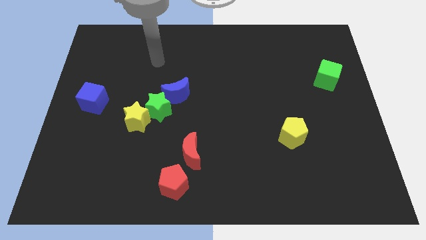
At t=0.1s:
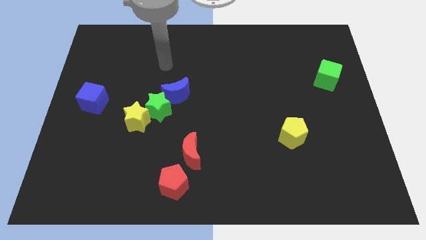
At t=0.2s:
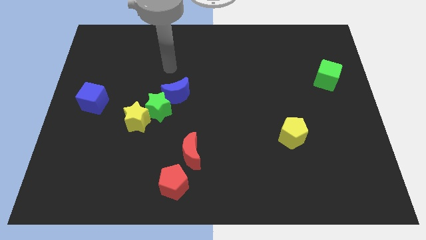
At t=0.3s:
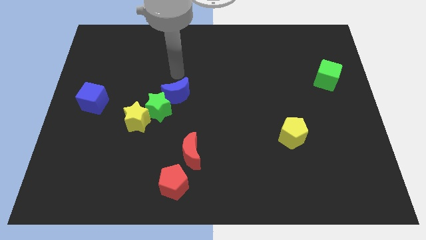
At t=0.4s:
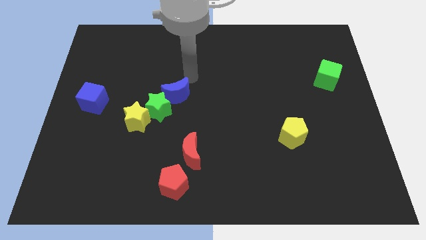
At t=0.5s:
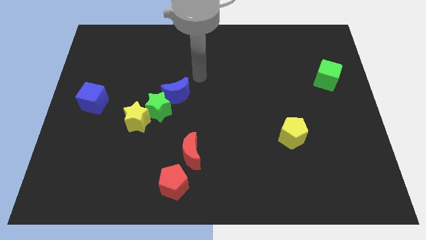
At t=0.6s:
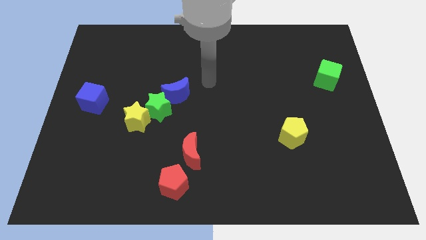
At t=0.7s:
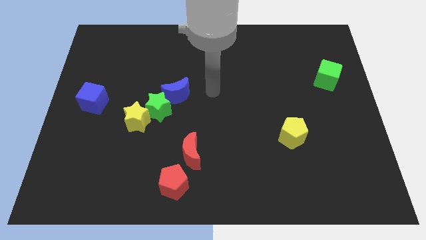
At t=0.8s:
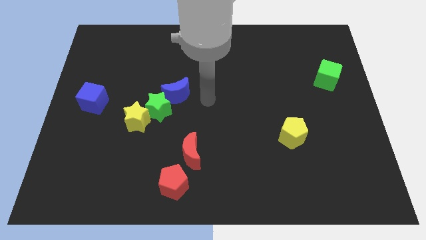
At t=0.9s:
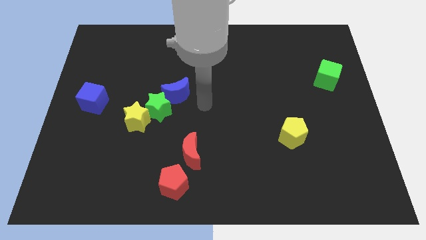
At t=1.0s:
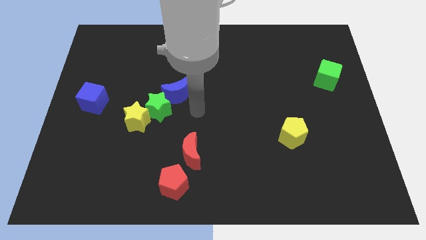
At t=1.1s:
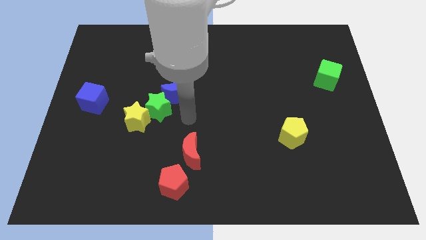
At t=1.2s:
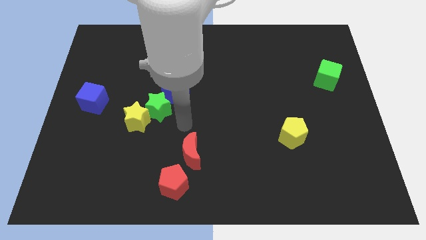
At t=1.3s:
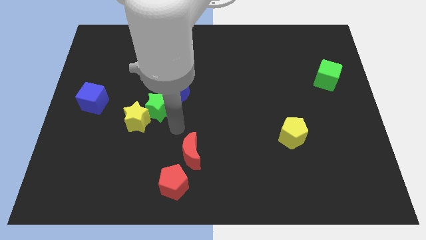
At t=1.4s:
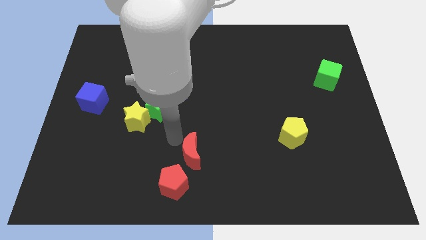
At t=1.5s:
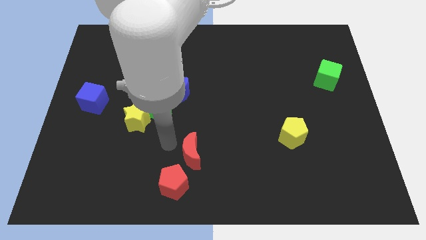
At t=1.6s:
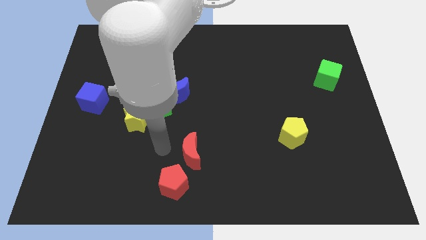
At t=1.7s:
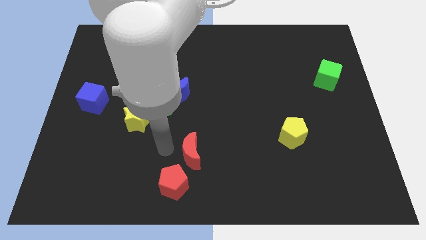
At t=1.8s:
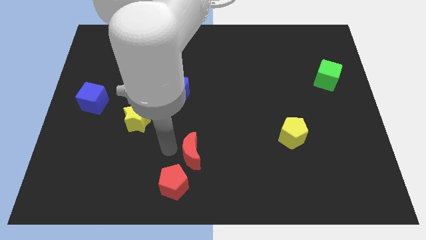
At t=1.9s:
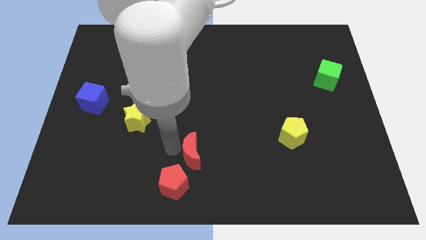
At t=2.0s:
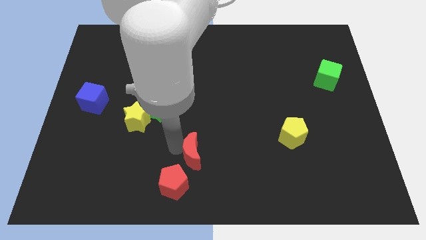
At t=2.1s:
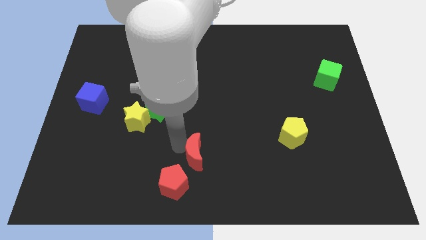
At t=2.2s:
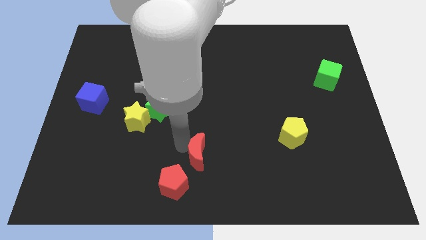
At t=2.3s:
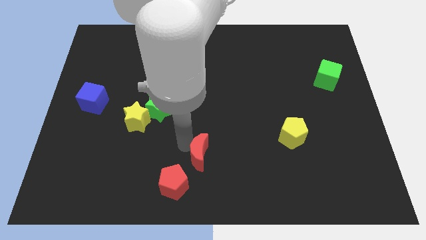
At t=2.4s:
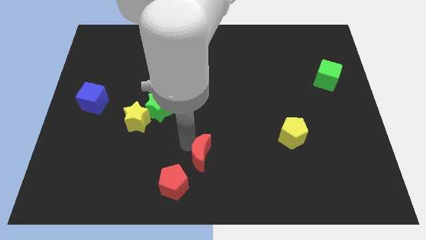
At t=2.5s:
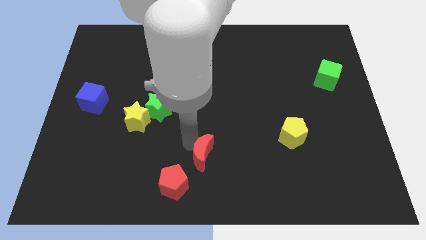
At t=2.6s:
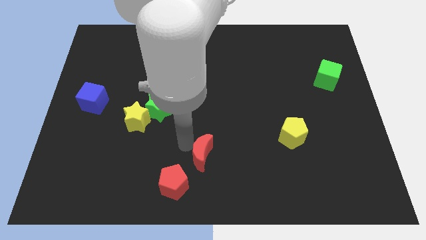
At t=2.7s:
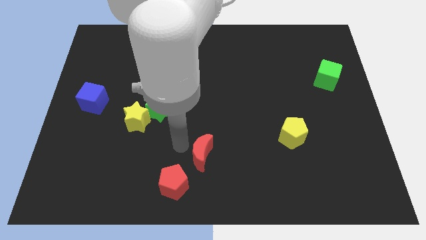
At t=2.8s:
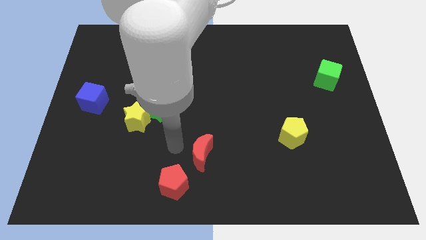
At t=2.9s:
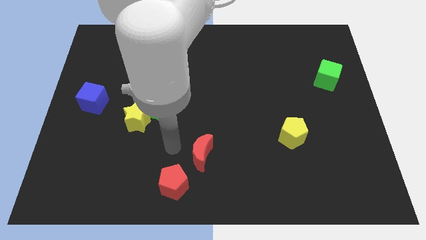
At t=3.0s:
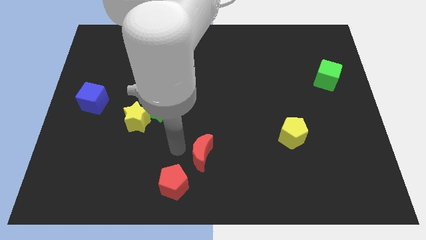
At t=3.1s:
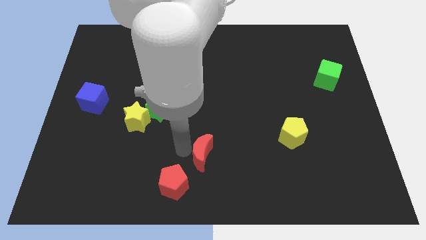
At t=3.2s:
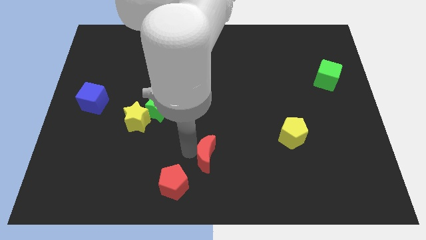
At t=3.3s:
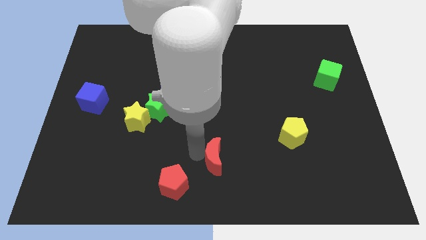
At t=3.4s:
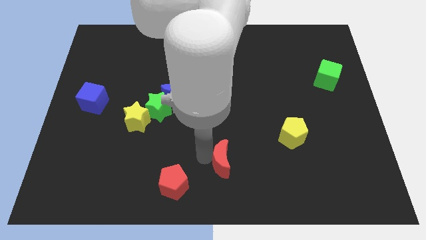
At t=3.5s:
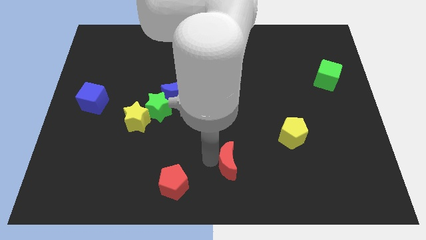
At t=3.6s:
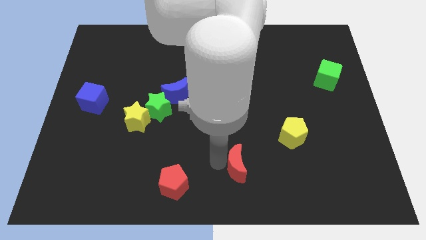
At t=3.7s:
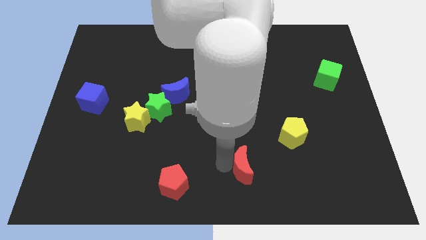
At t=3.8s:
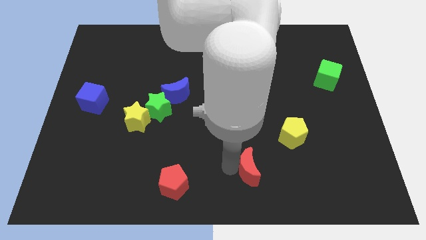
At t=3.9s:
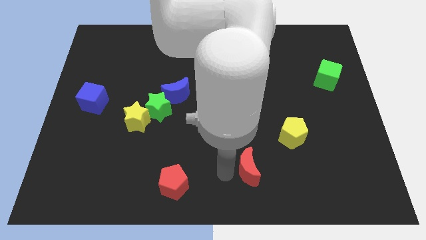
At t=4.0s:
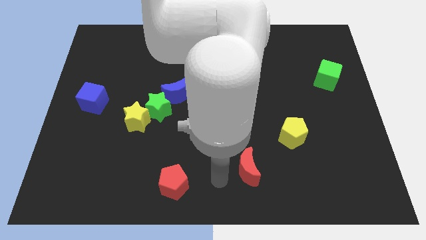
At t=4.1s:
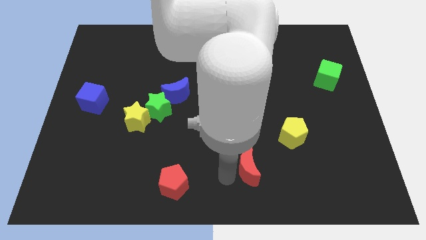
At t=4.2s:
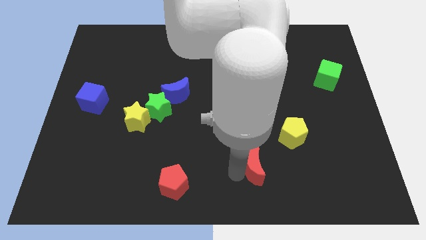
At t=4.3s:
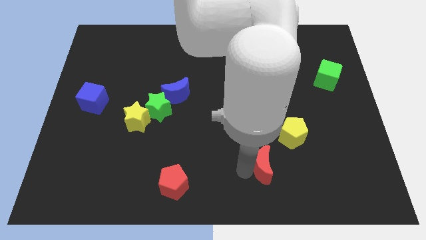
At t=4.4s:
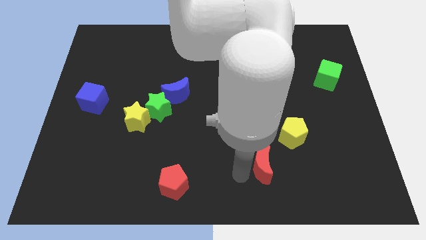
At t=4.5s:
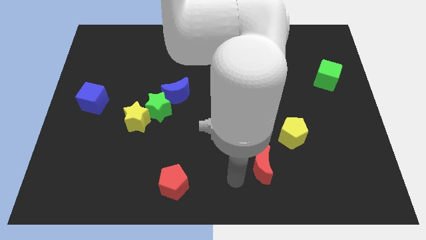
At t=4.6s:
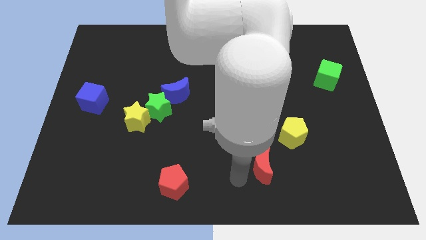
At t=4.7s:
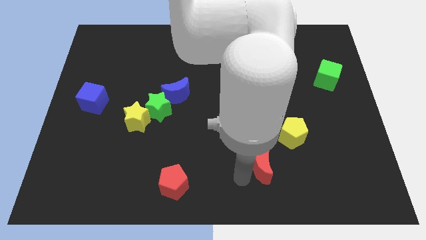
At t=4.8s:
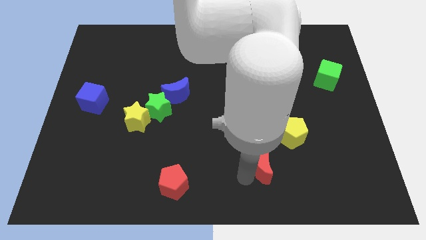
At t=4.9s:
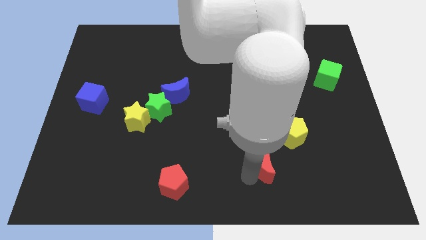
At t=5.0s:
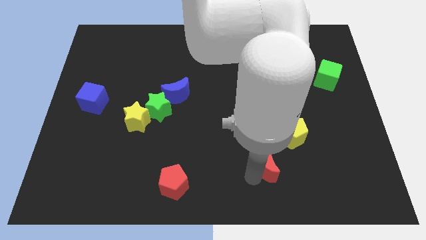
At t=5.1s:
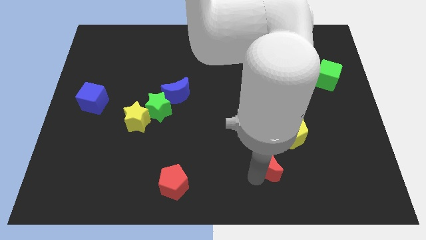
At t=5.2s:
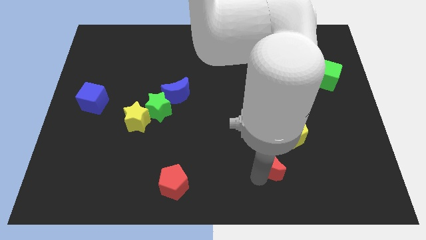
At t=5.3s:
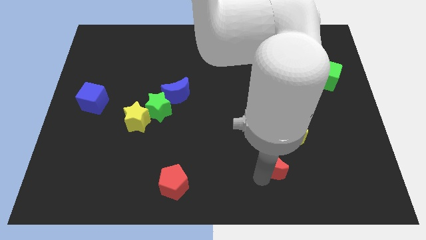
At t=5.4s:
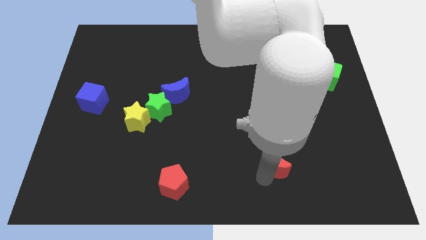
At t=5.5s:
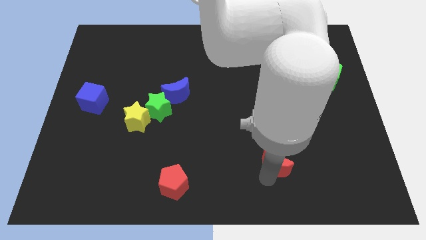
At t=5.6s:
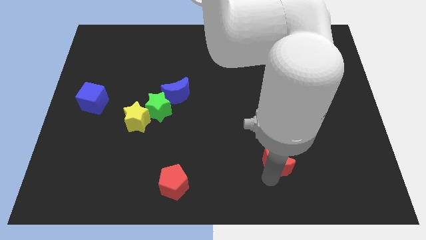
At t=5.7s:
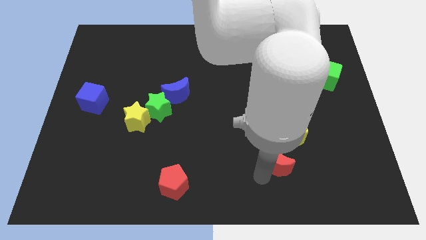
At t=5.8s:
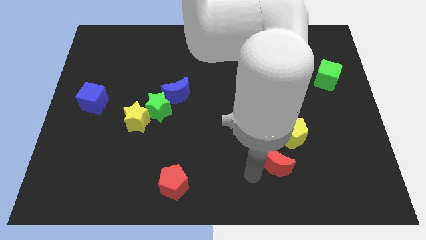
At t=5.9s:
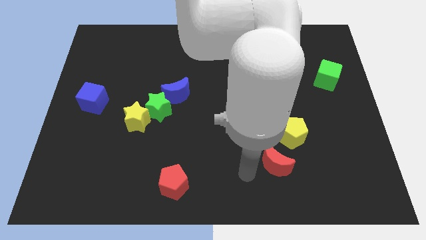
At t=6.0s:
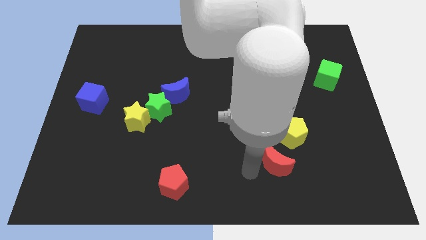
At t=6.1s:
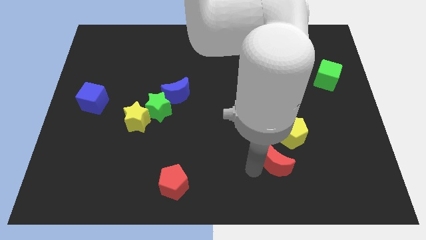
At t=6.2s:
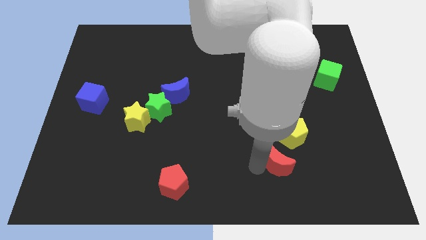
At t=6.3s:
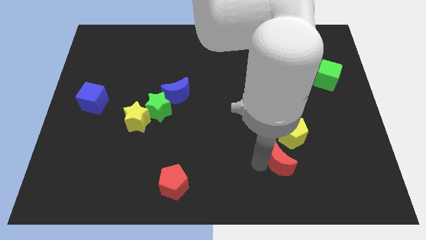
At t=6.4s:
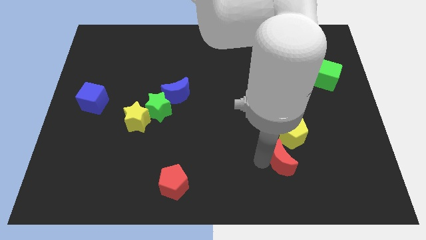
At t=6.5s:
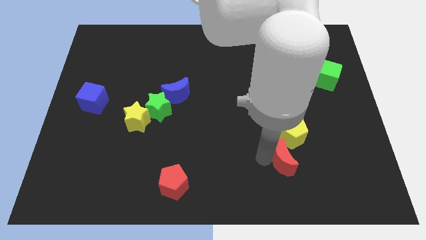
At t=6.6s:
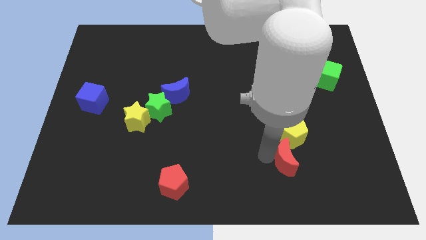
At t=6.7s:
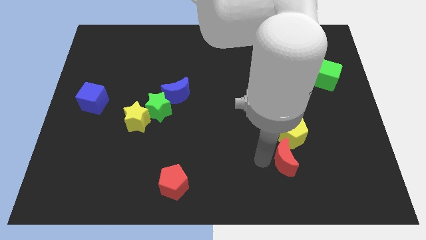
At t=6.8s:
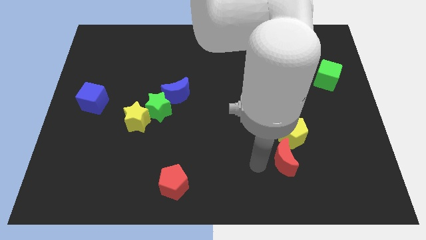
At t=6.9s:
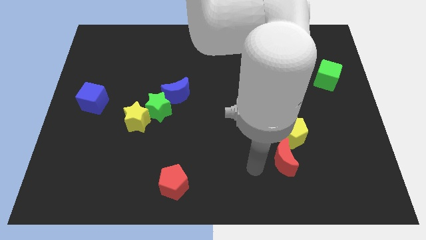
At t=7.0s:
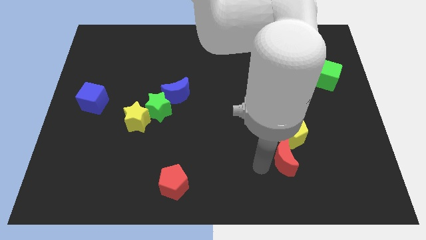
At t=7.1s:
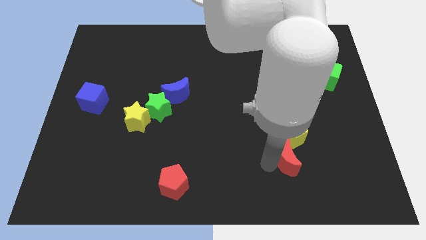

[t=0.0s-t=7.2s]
slide the red moon to the right

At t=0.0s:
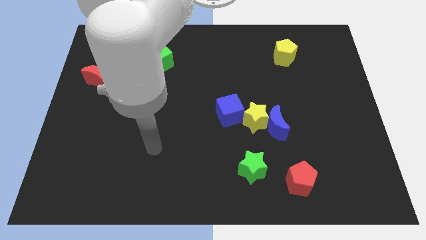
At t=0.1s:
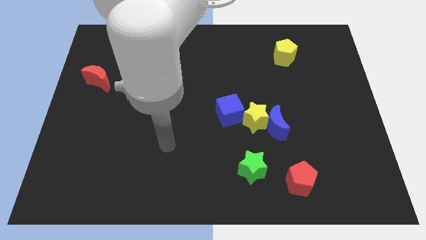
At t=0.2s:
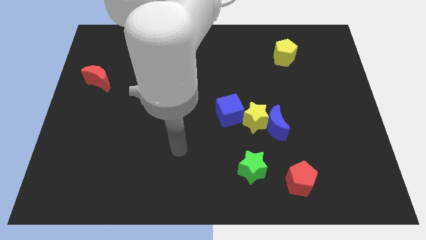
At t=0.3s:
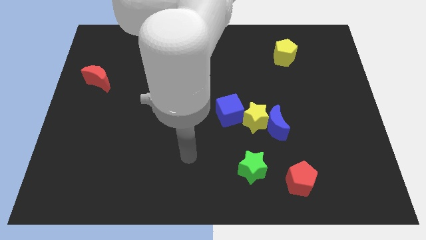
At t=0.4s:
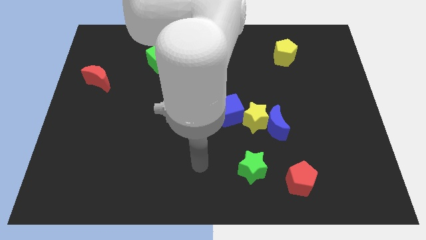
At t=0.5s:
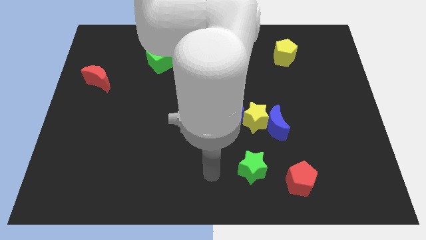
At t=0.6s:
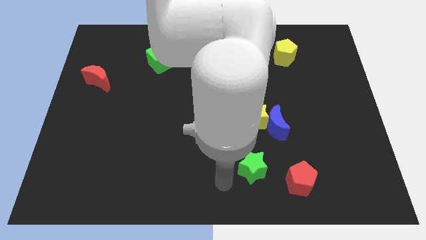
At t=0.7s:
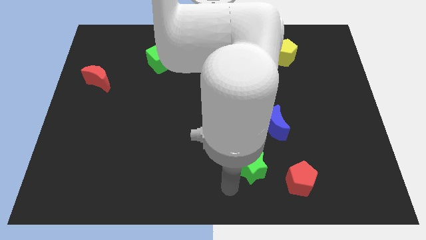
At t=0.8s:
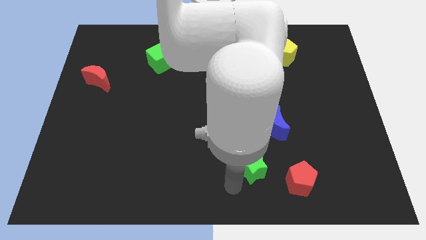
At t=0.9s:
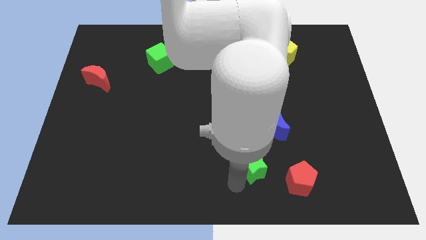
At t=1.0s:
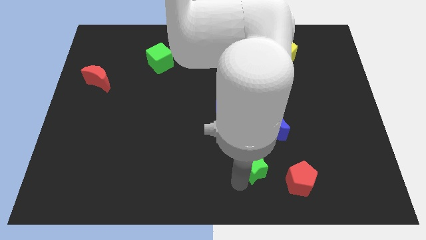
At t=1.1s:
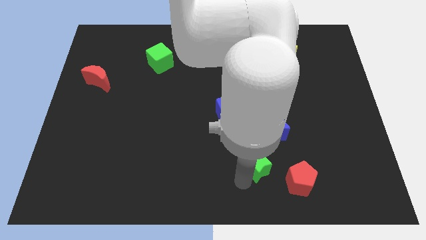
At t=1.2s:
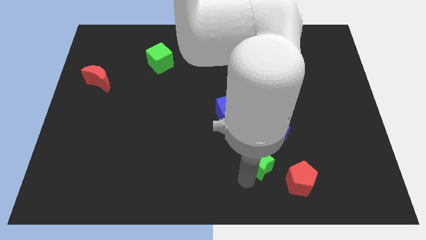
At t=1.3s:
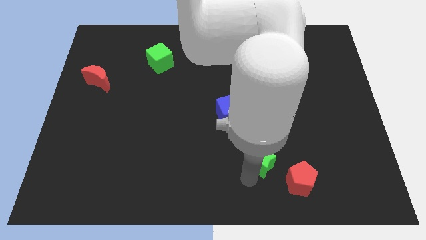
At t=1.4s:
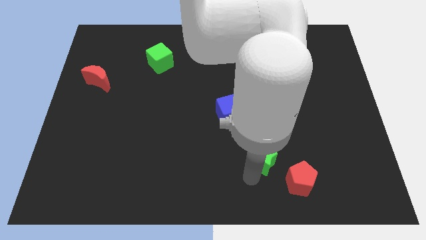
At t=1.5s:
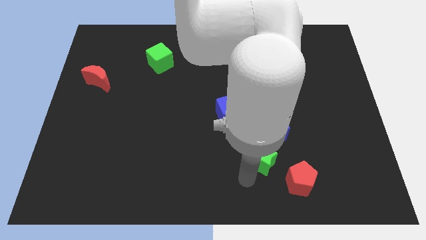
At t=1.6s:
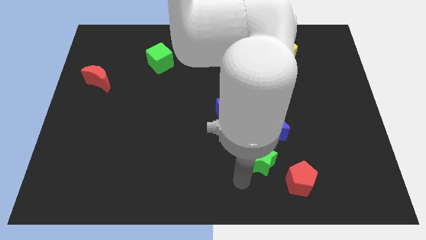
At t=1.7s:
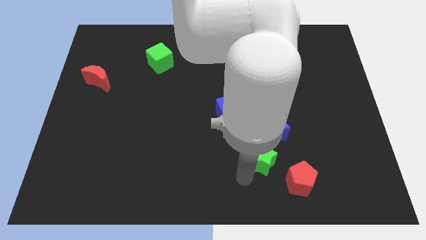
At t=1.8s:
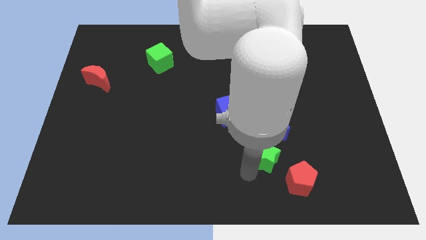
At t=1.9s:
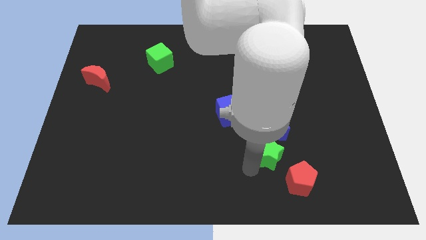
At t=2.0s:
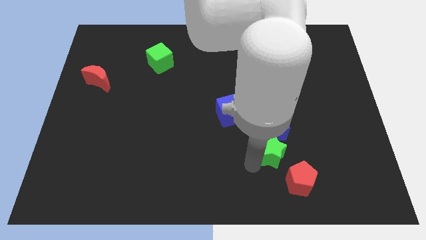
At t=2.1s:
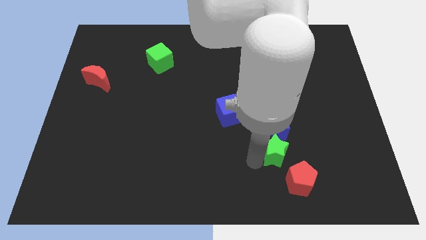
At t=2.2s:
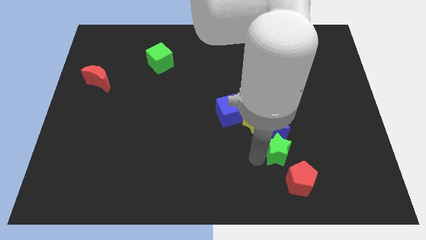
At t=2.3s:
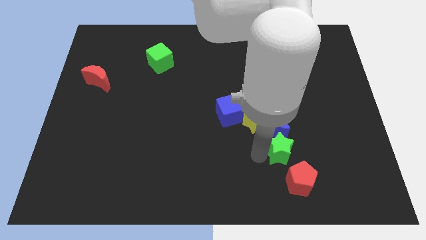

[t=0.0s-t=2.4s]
push the green star a little bit up and to the right
